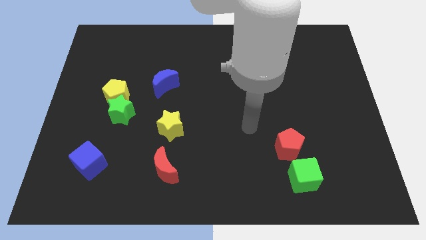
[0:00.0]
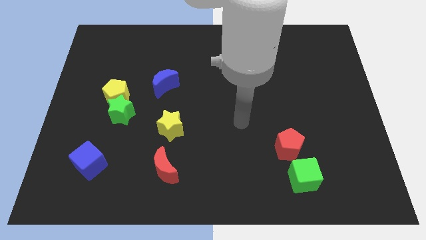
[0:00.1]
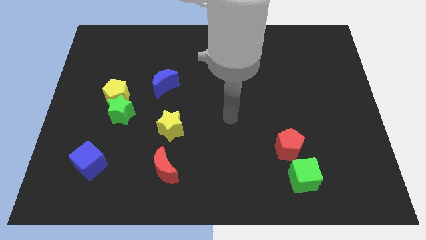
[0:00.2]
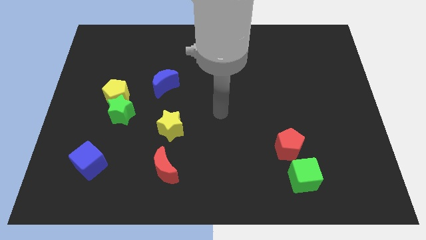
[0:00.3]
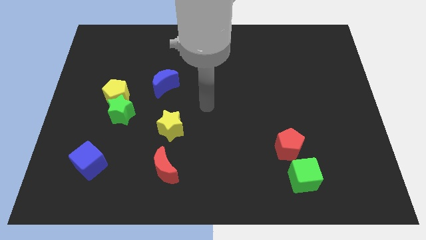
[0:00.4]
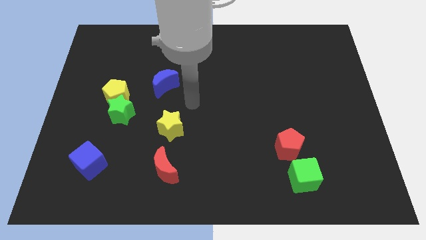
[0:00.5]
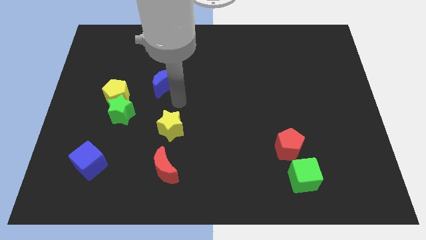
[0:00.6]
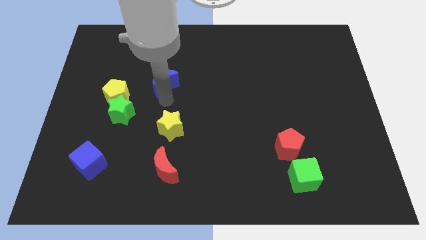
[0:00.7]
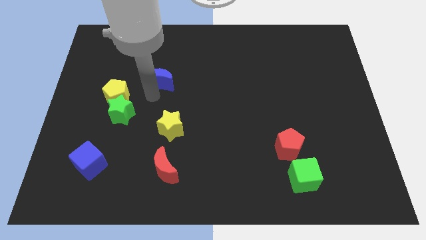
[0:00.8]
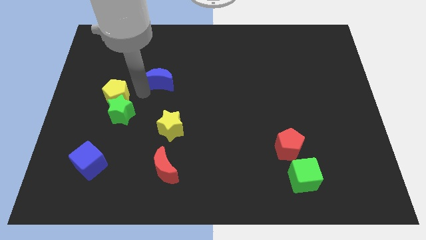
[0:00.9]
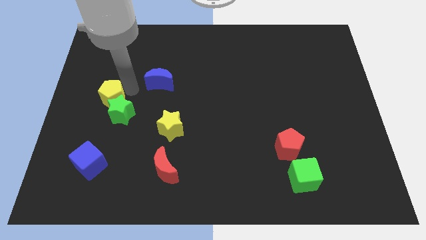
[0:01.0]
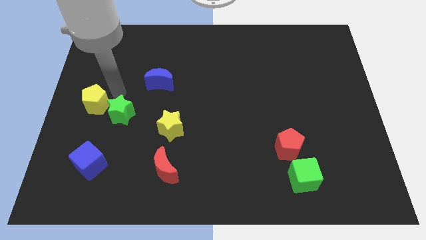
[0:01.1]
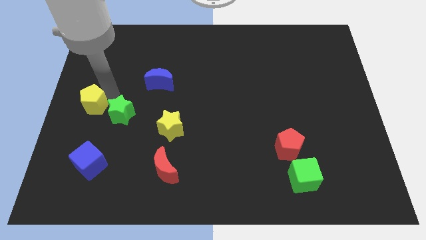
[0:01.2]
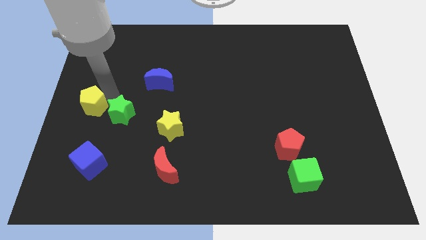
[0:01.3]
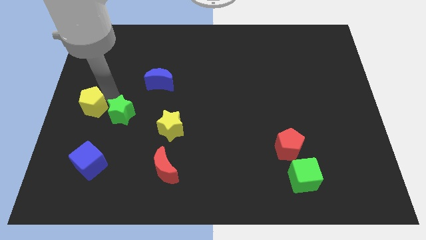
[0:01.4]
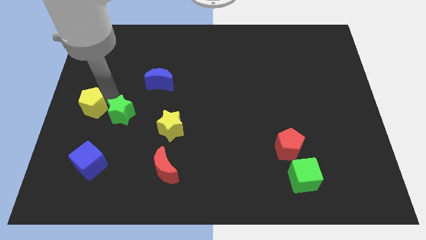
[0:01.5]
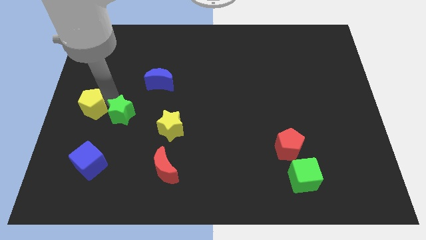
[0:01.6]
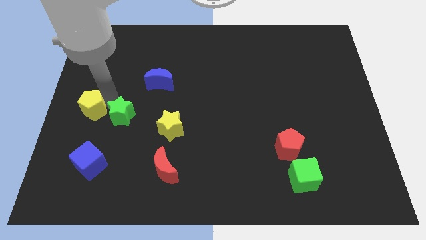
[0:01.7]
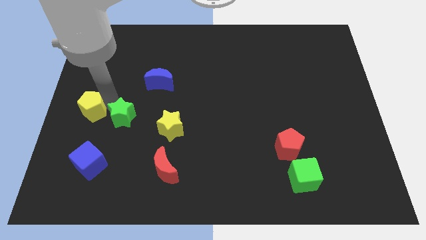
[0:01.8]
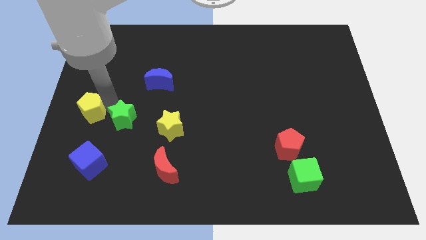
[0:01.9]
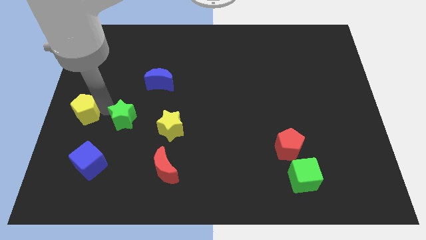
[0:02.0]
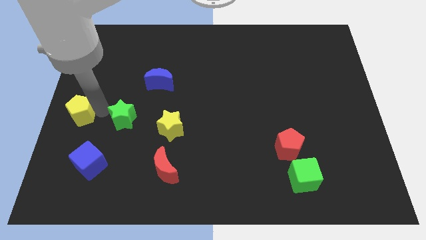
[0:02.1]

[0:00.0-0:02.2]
move the green star away from the yellow pentagon

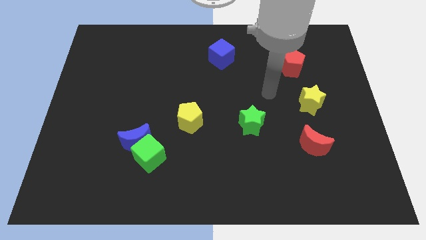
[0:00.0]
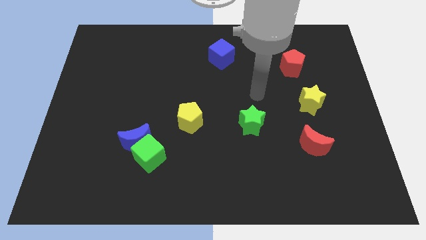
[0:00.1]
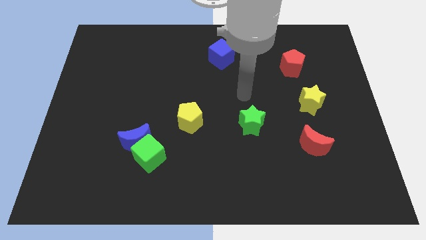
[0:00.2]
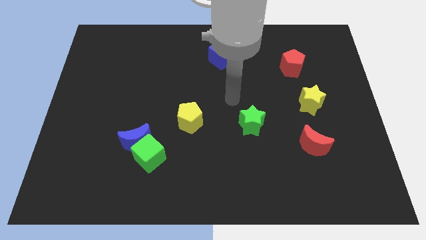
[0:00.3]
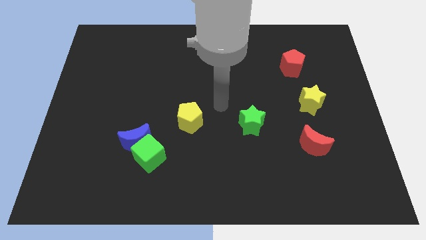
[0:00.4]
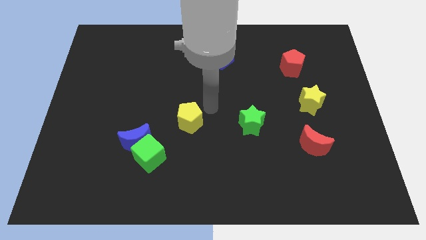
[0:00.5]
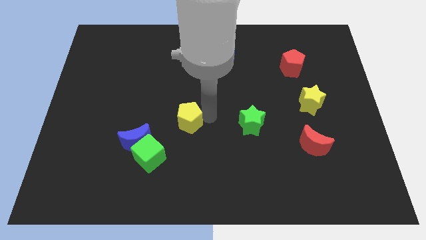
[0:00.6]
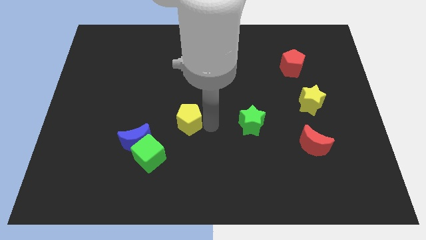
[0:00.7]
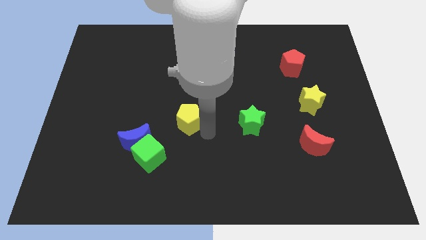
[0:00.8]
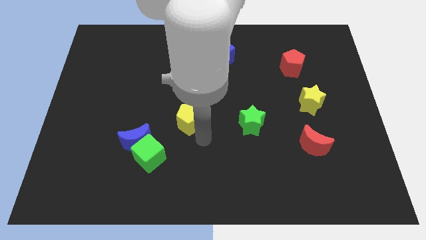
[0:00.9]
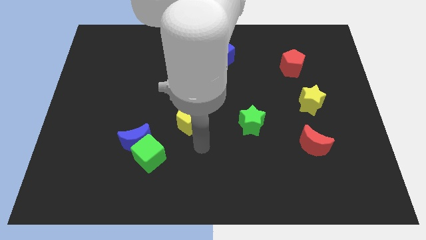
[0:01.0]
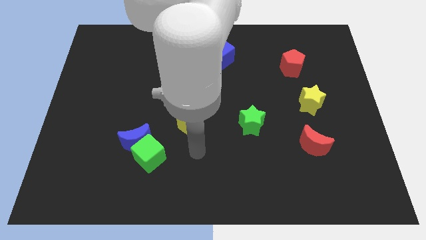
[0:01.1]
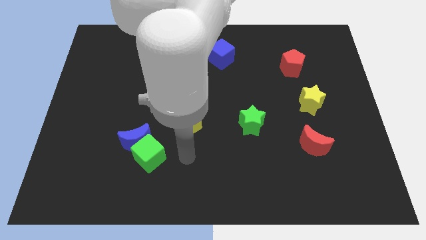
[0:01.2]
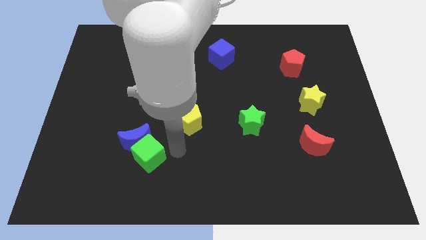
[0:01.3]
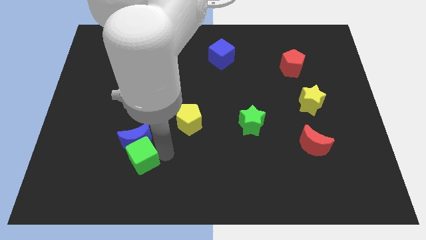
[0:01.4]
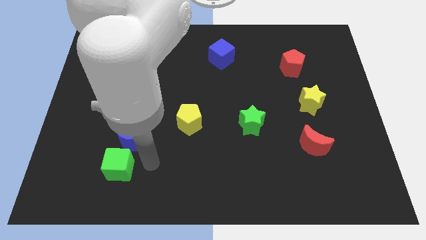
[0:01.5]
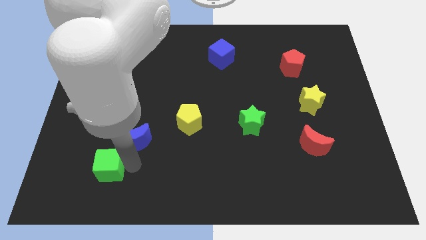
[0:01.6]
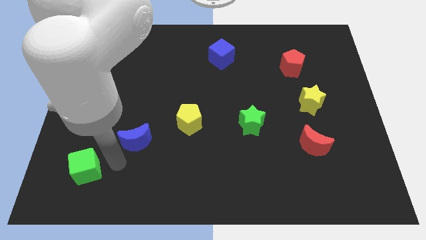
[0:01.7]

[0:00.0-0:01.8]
pull the blue moon apart from the green cube

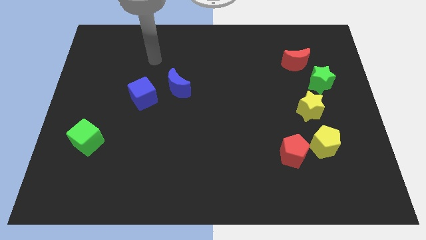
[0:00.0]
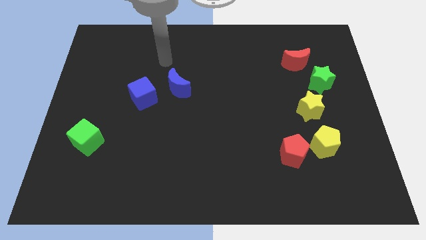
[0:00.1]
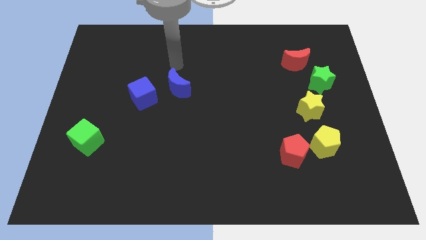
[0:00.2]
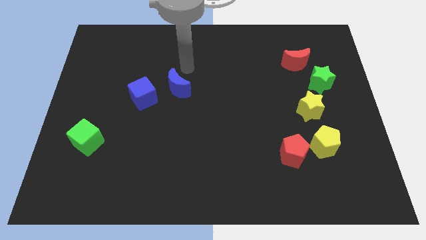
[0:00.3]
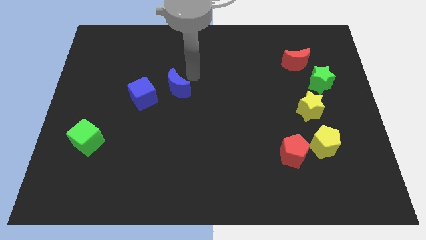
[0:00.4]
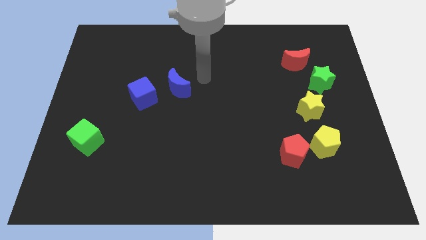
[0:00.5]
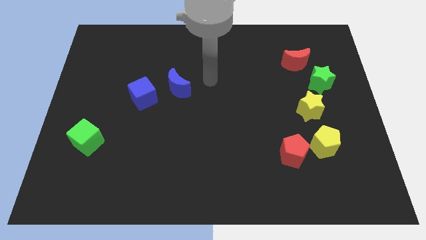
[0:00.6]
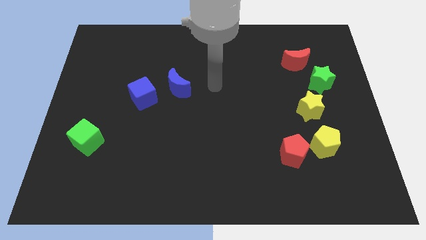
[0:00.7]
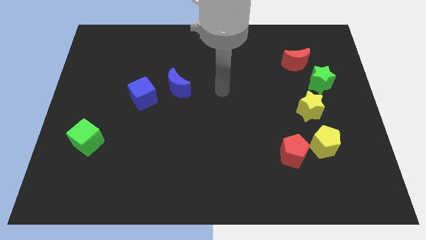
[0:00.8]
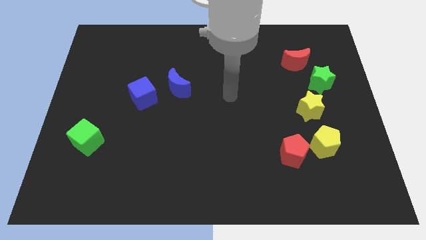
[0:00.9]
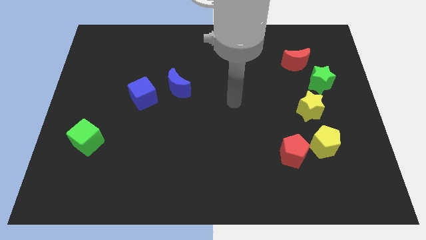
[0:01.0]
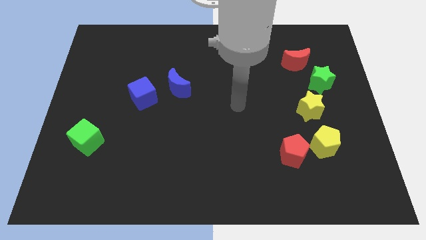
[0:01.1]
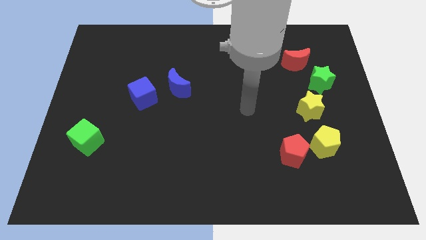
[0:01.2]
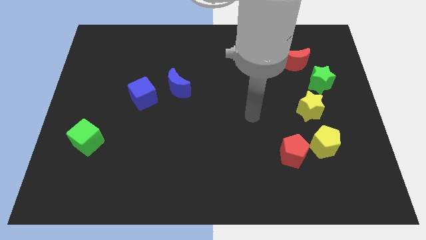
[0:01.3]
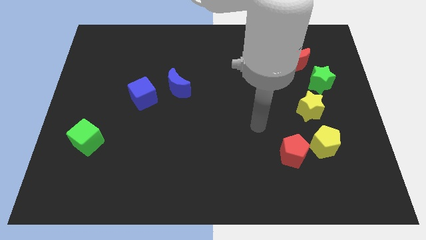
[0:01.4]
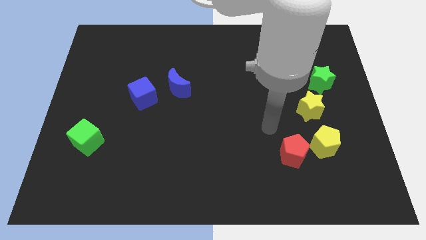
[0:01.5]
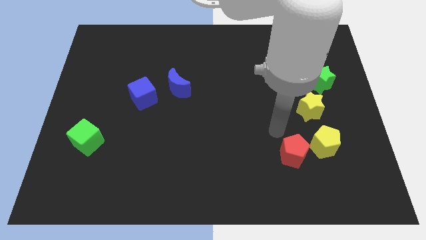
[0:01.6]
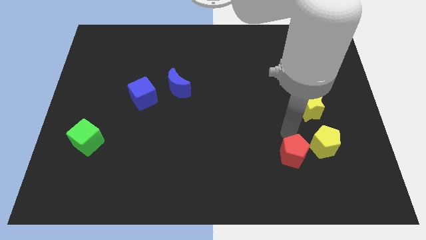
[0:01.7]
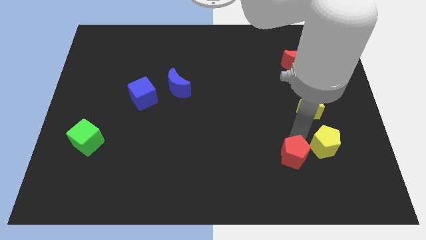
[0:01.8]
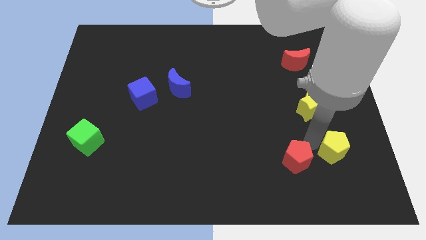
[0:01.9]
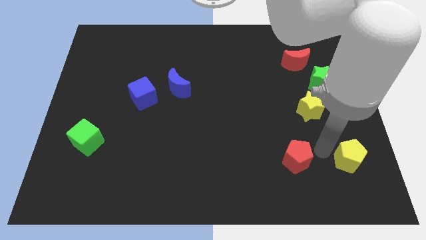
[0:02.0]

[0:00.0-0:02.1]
pull the red pentagon apart from the yellow pentagon

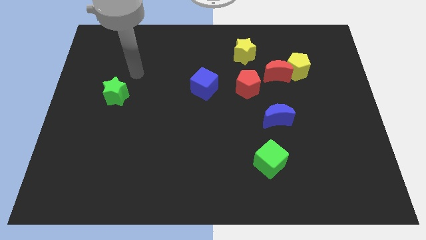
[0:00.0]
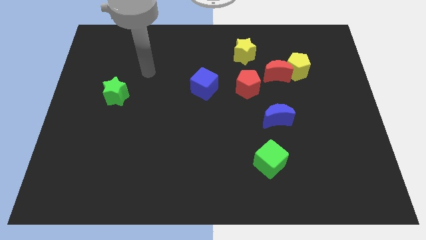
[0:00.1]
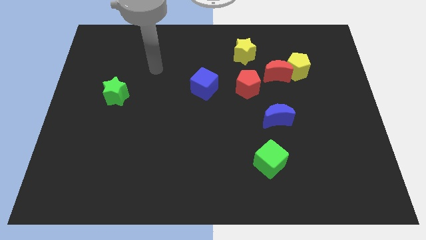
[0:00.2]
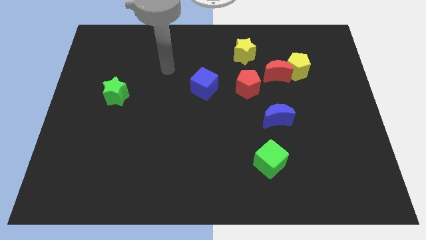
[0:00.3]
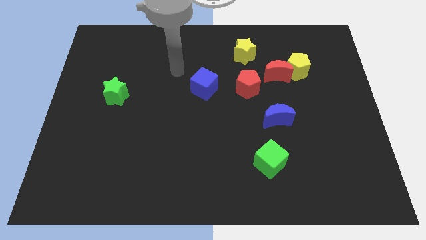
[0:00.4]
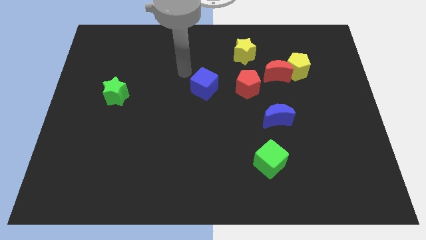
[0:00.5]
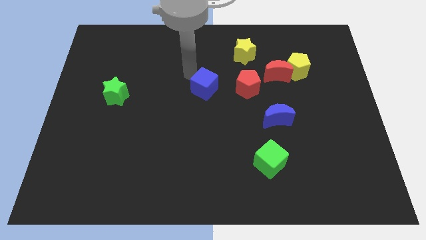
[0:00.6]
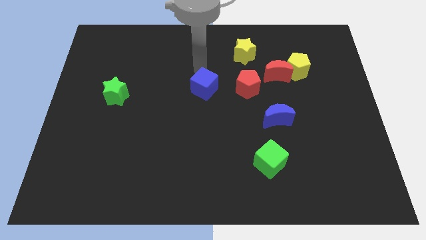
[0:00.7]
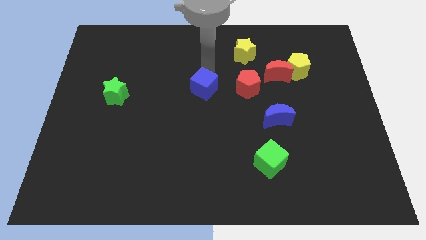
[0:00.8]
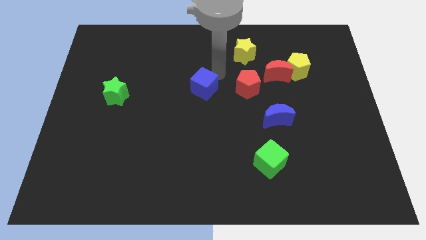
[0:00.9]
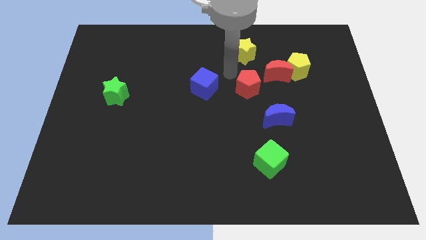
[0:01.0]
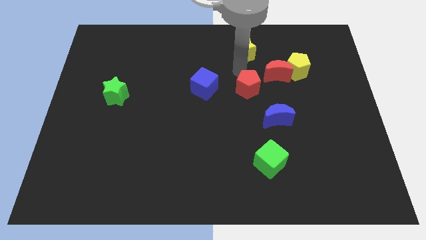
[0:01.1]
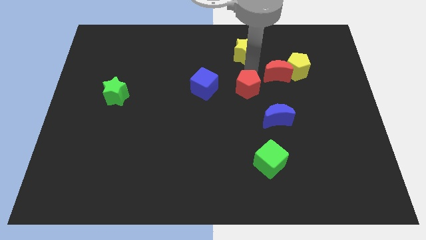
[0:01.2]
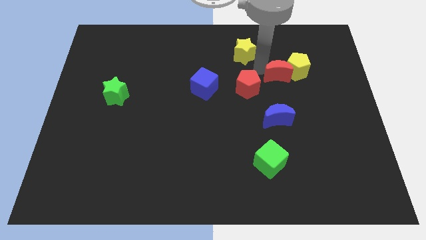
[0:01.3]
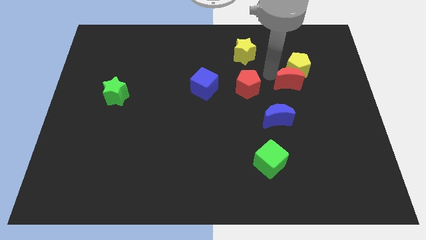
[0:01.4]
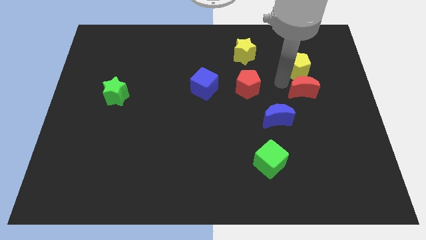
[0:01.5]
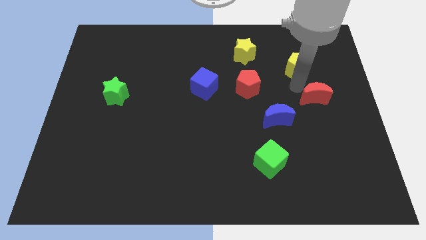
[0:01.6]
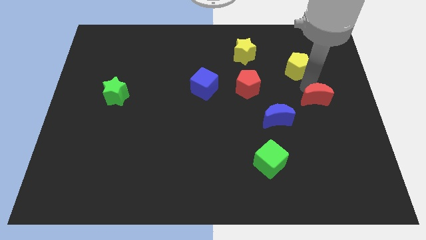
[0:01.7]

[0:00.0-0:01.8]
move the yellow pentagon away from the red moon

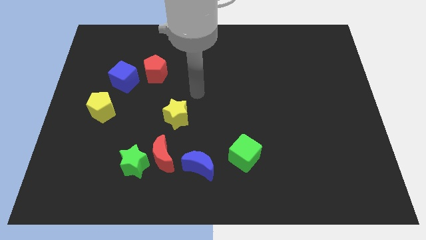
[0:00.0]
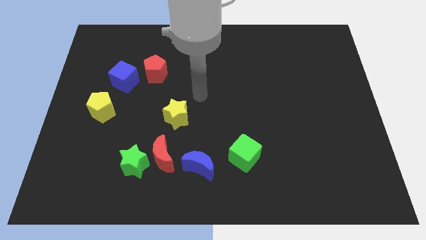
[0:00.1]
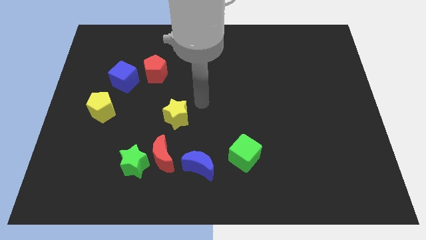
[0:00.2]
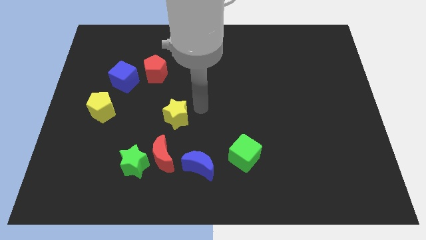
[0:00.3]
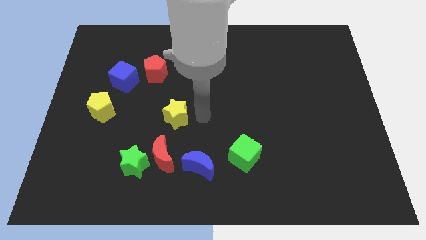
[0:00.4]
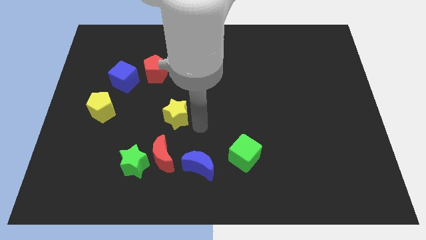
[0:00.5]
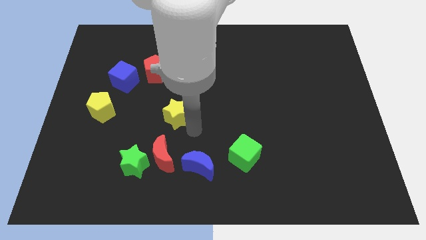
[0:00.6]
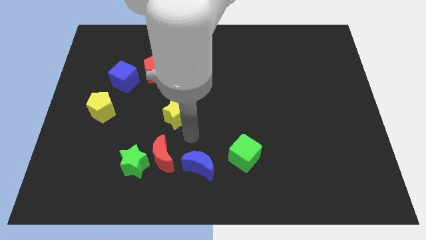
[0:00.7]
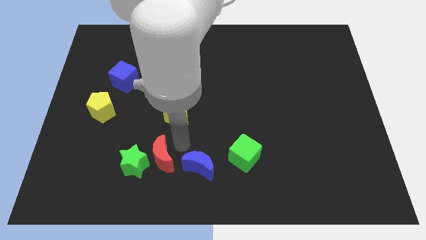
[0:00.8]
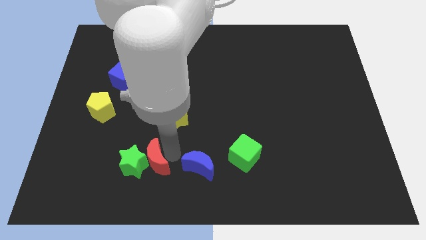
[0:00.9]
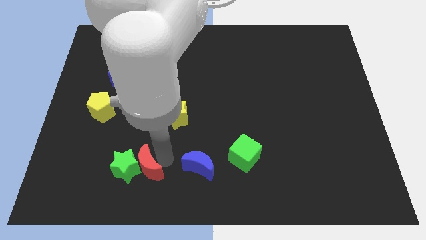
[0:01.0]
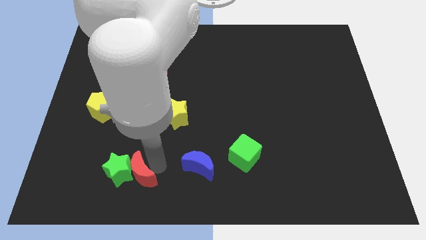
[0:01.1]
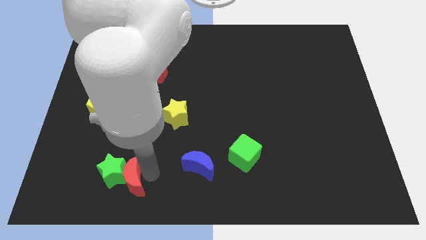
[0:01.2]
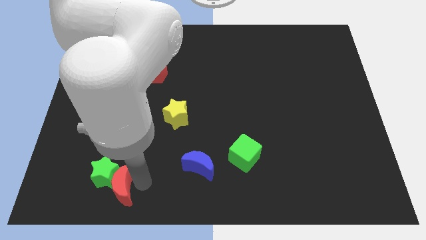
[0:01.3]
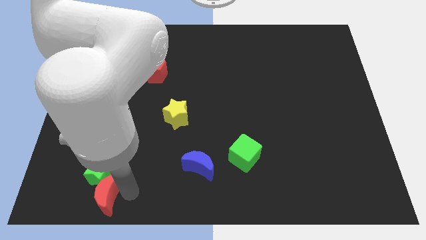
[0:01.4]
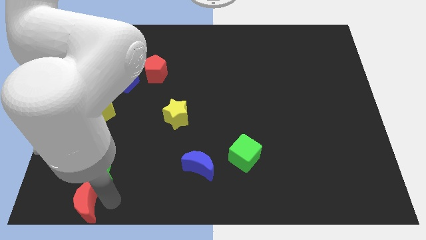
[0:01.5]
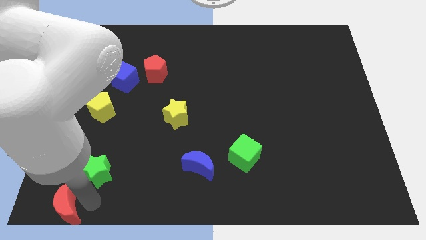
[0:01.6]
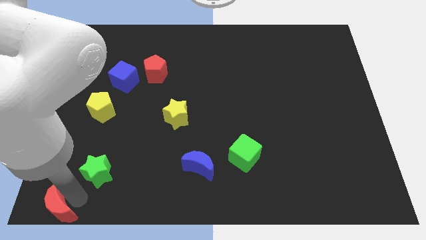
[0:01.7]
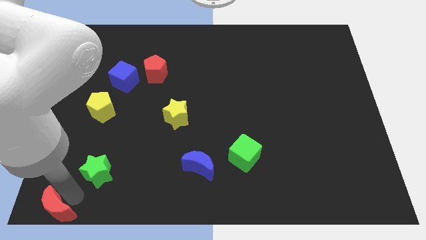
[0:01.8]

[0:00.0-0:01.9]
separate the green star from the red moon
